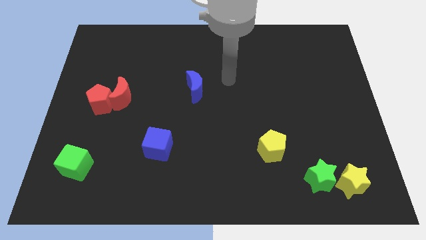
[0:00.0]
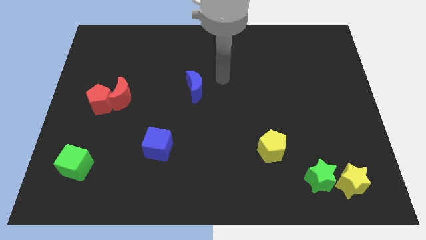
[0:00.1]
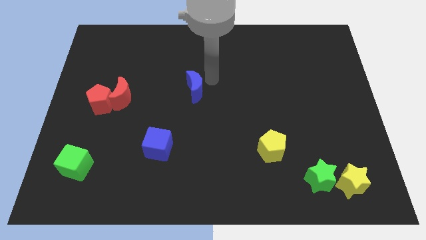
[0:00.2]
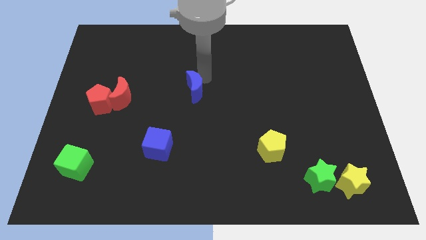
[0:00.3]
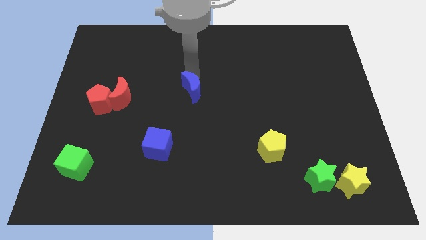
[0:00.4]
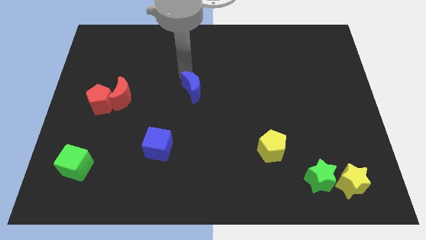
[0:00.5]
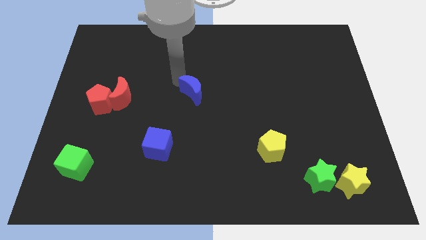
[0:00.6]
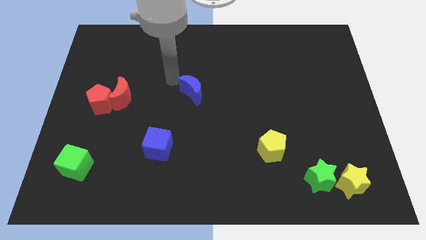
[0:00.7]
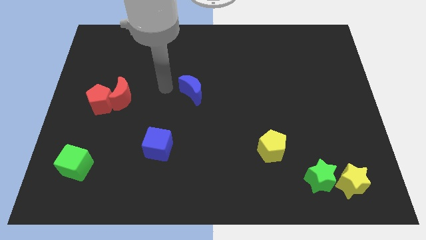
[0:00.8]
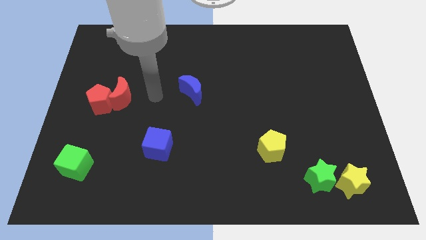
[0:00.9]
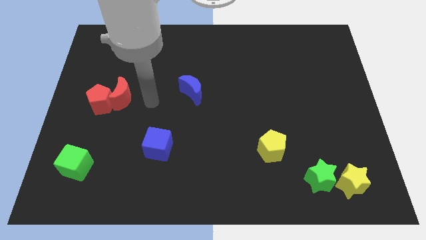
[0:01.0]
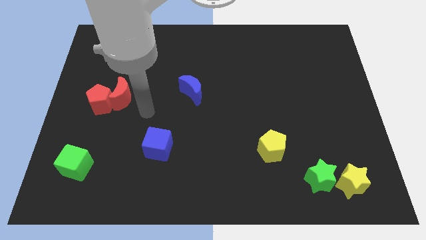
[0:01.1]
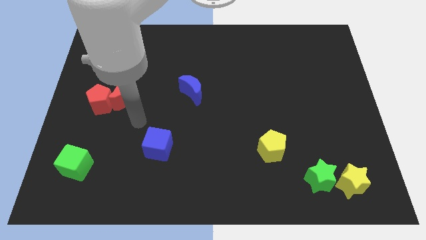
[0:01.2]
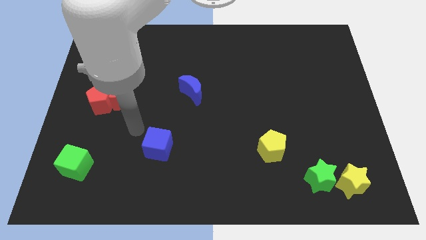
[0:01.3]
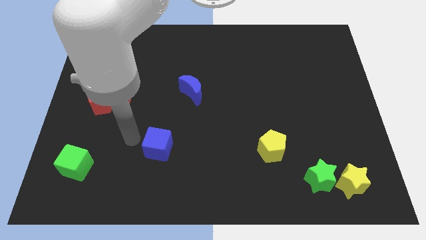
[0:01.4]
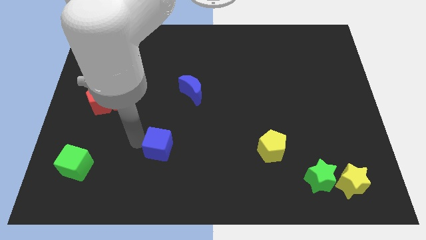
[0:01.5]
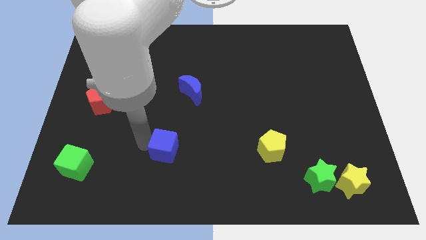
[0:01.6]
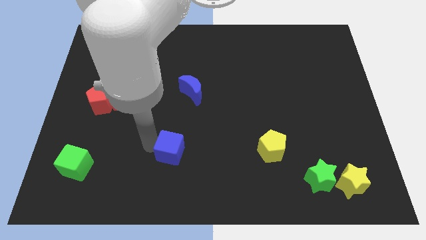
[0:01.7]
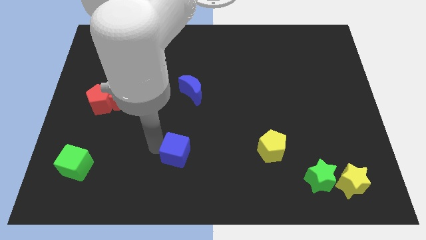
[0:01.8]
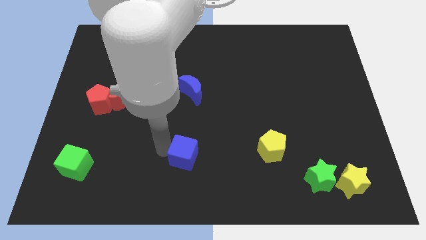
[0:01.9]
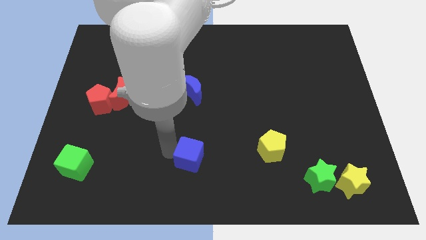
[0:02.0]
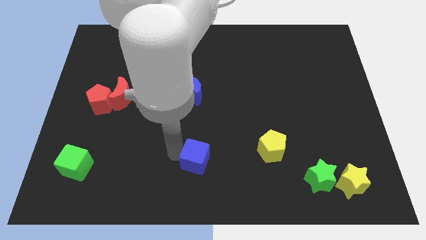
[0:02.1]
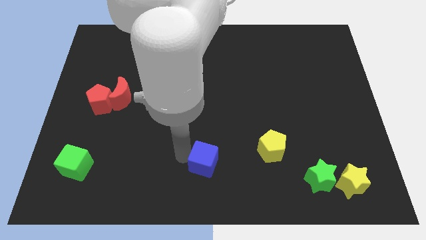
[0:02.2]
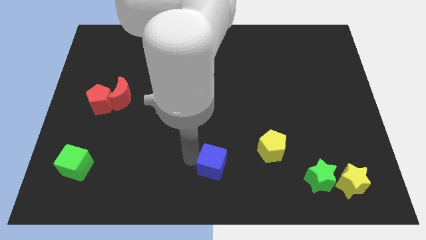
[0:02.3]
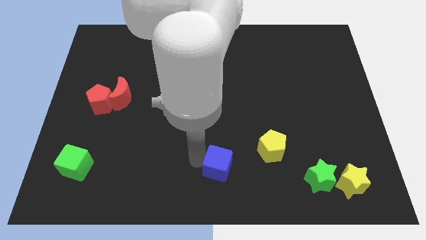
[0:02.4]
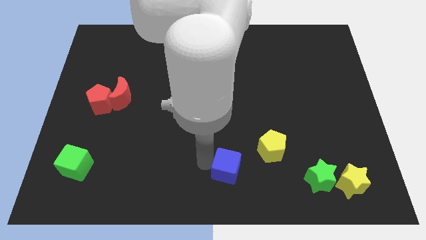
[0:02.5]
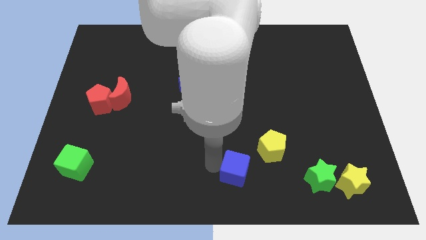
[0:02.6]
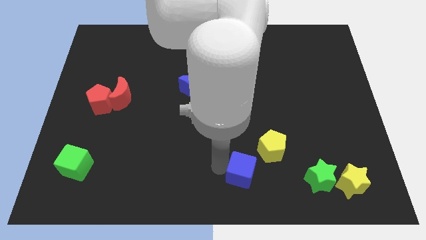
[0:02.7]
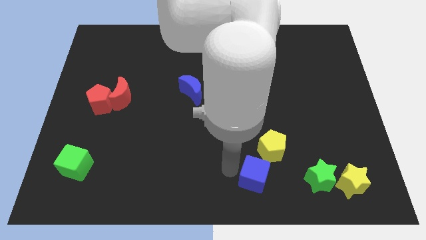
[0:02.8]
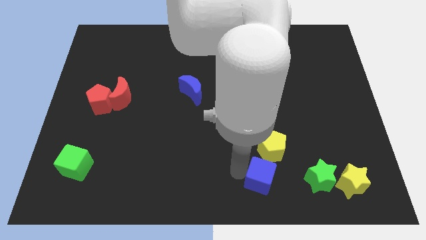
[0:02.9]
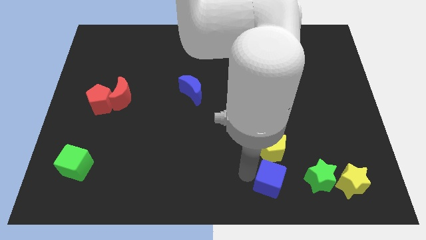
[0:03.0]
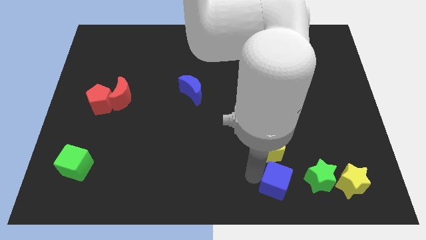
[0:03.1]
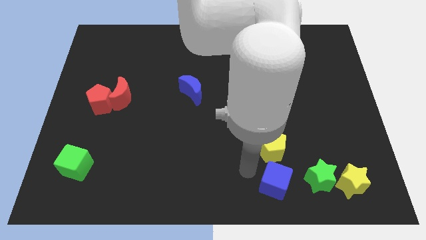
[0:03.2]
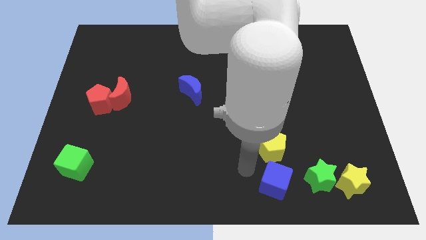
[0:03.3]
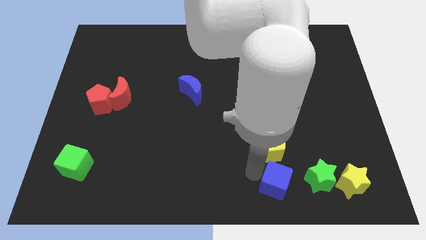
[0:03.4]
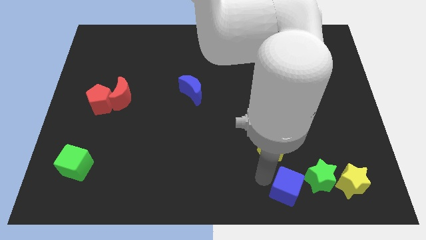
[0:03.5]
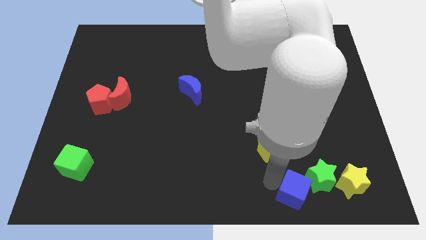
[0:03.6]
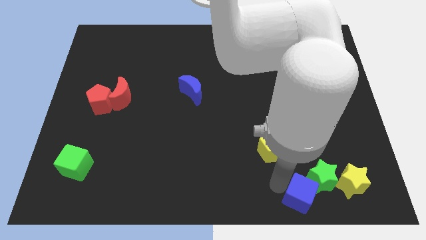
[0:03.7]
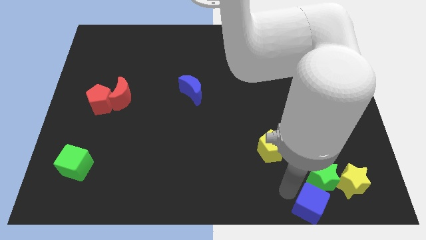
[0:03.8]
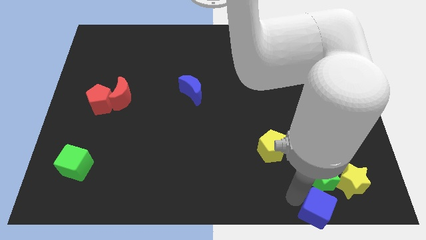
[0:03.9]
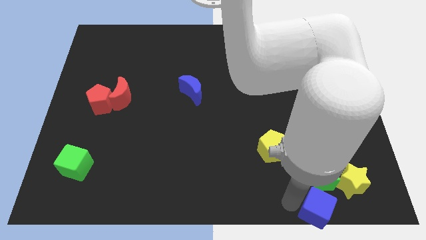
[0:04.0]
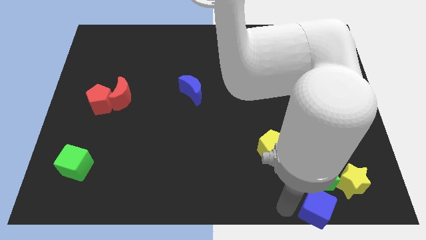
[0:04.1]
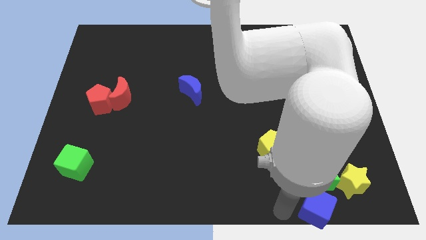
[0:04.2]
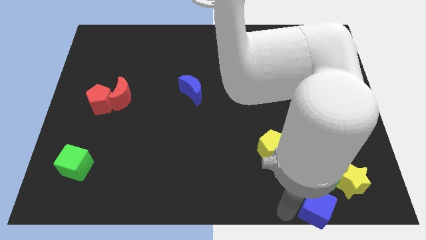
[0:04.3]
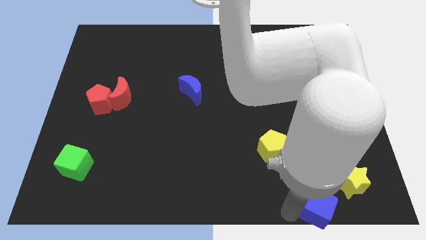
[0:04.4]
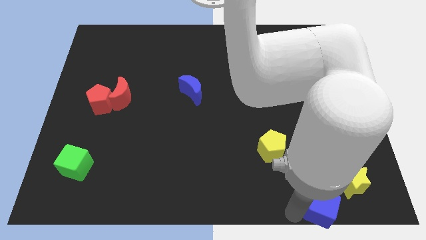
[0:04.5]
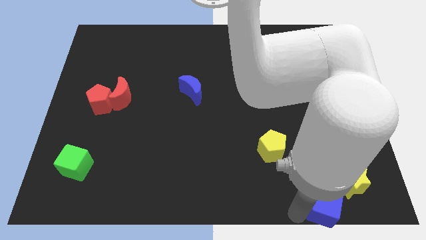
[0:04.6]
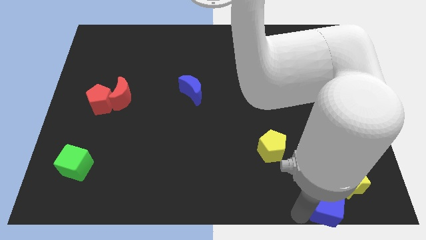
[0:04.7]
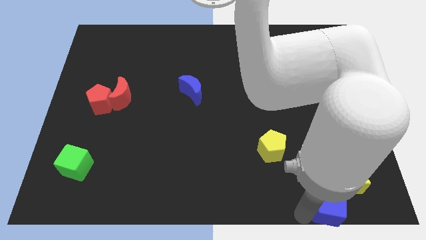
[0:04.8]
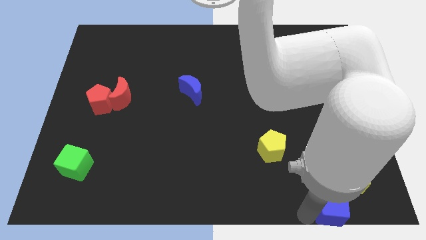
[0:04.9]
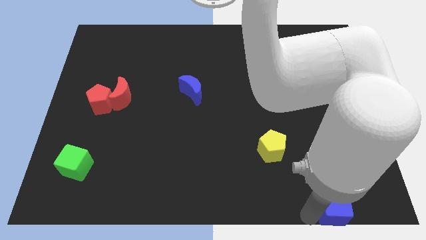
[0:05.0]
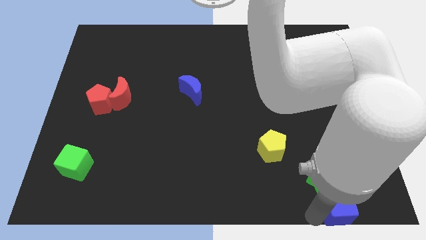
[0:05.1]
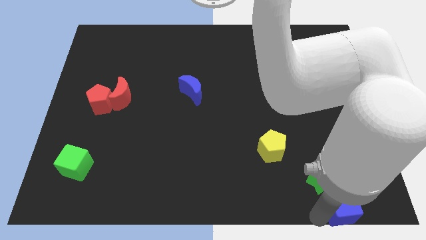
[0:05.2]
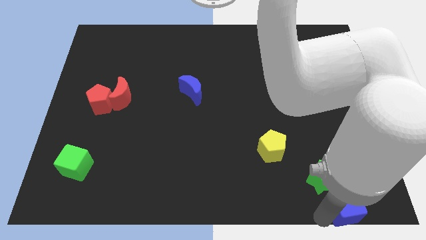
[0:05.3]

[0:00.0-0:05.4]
put the blue cube to the bottom right
